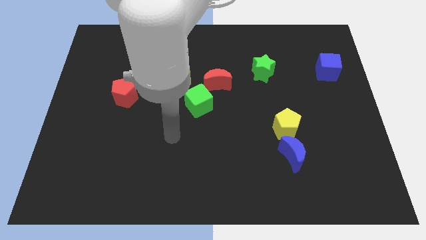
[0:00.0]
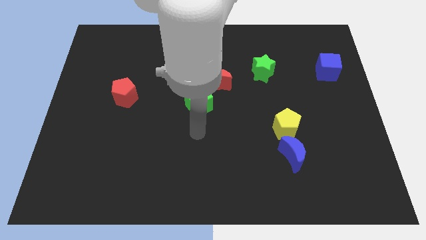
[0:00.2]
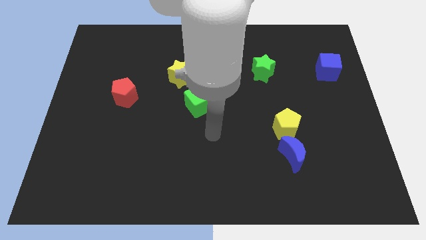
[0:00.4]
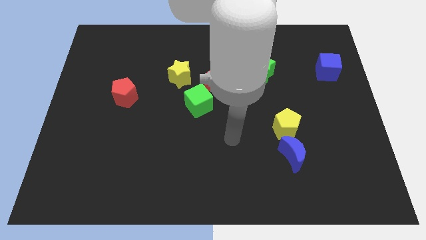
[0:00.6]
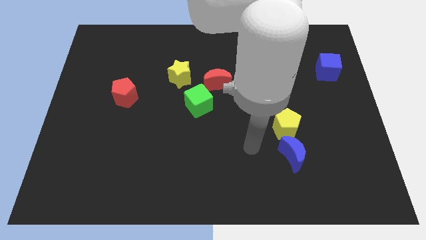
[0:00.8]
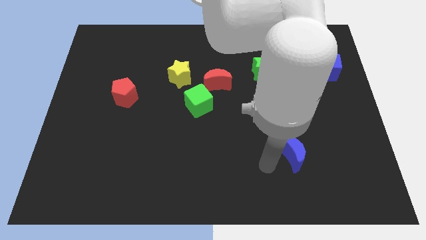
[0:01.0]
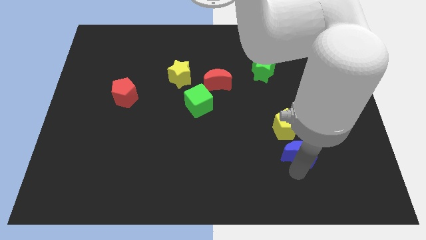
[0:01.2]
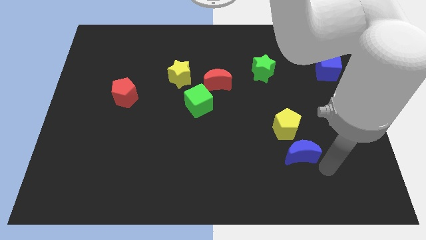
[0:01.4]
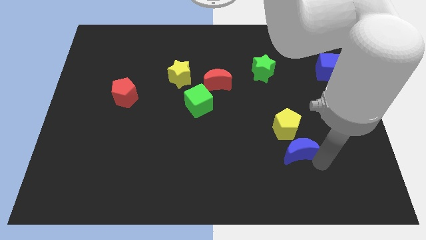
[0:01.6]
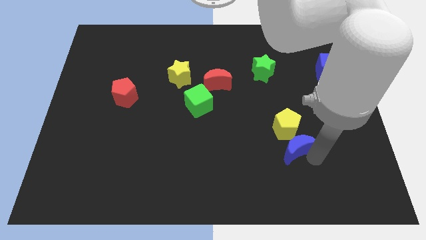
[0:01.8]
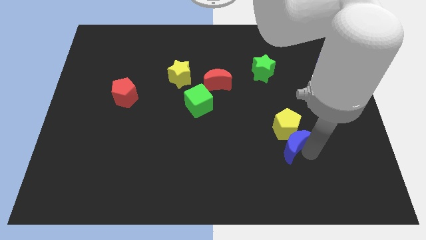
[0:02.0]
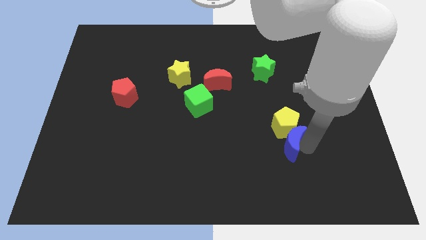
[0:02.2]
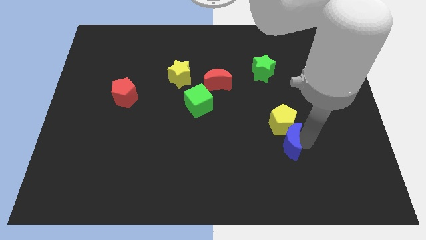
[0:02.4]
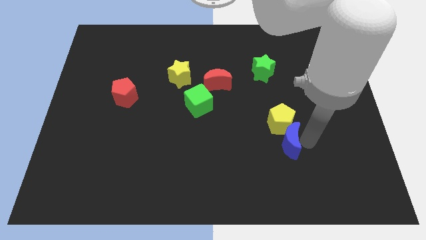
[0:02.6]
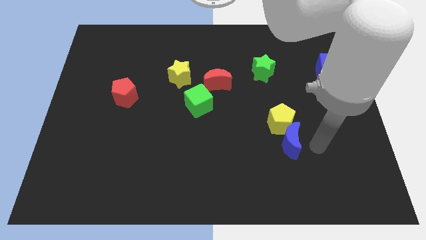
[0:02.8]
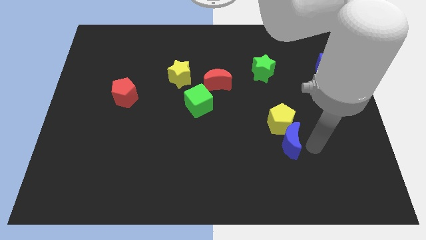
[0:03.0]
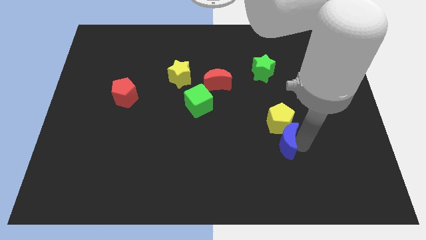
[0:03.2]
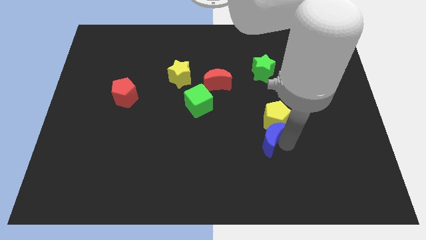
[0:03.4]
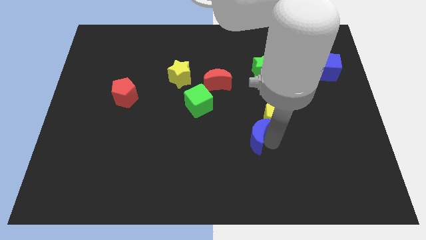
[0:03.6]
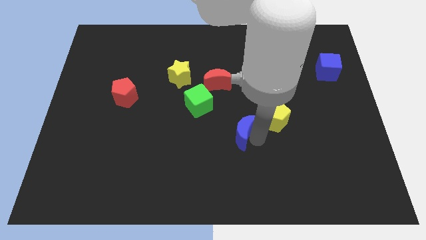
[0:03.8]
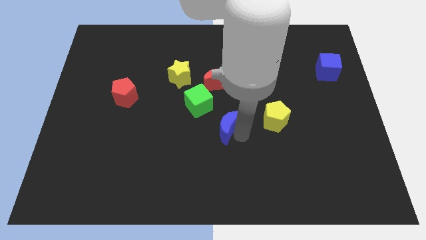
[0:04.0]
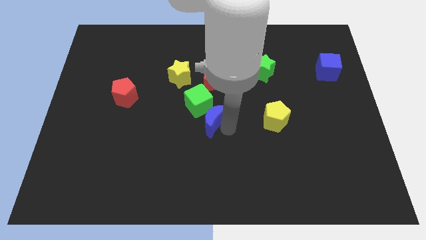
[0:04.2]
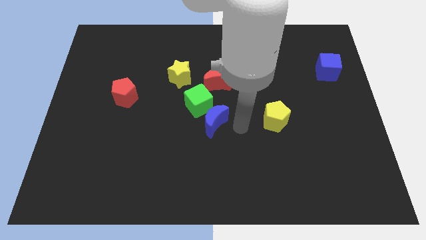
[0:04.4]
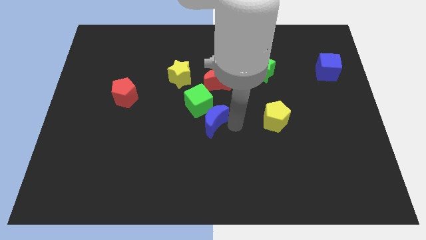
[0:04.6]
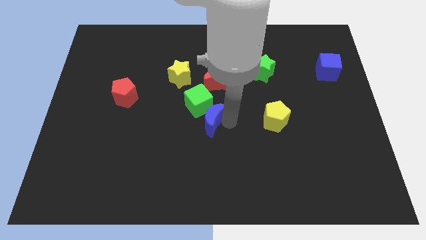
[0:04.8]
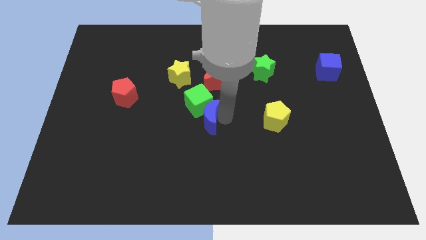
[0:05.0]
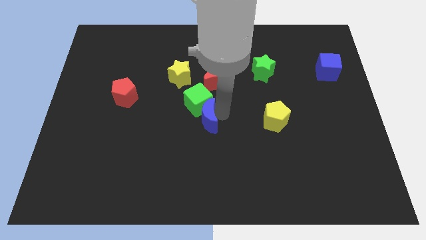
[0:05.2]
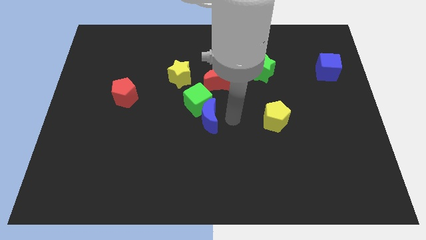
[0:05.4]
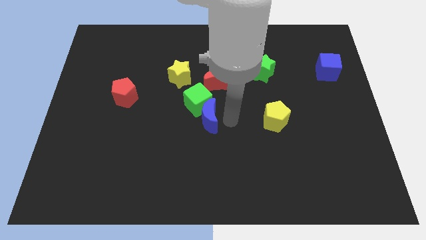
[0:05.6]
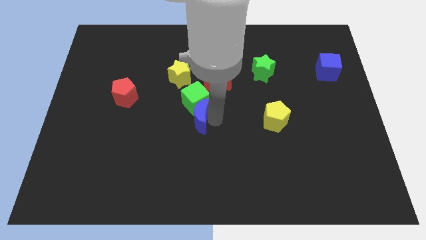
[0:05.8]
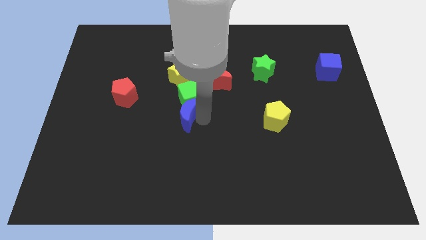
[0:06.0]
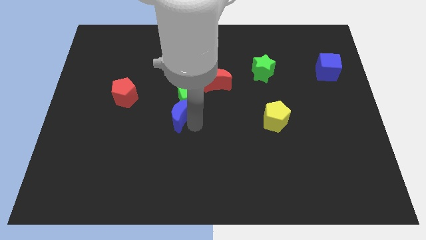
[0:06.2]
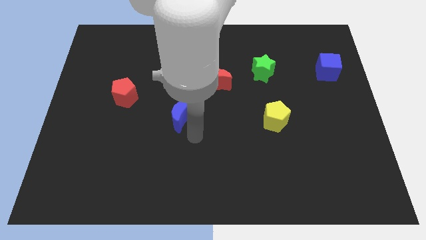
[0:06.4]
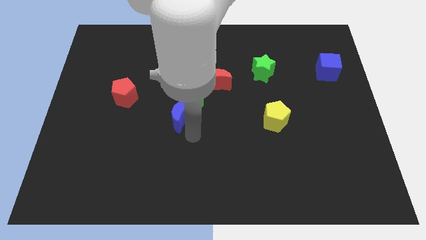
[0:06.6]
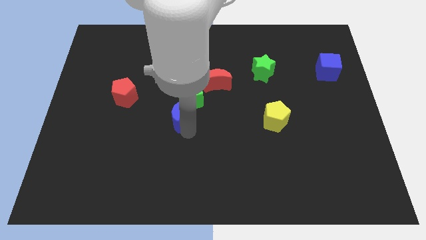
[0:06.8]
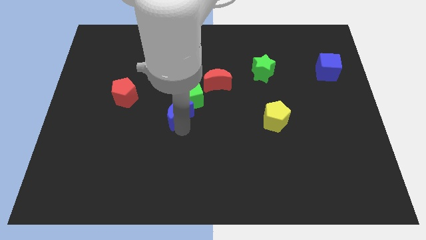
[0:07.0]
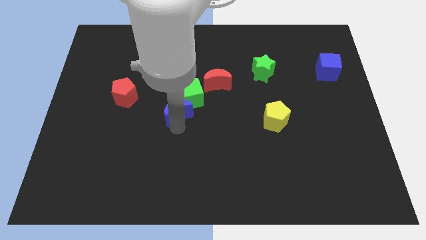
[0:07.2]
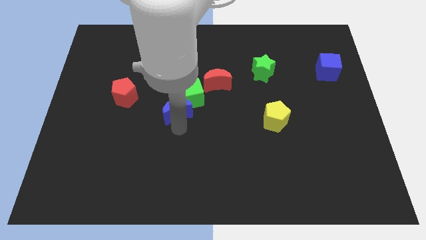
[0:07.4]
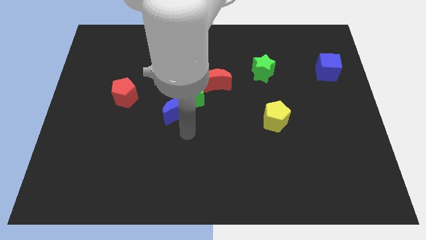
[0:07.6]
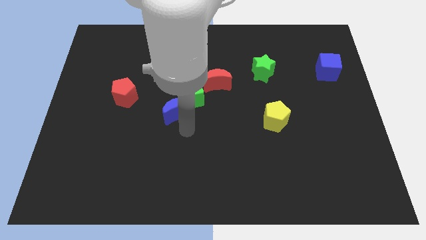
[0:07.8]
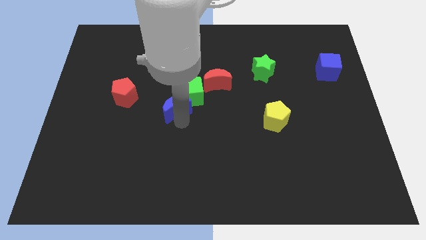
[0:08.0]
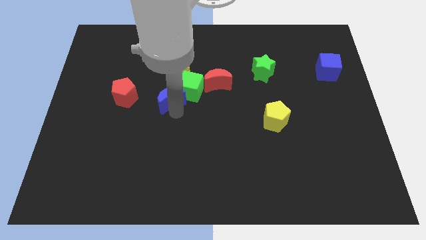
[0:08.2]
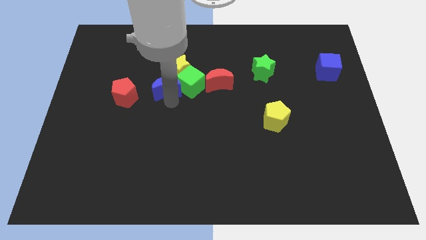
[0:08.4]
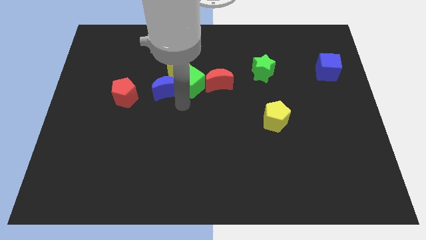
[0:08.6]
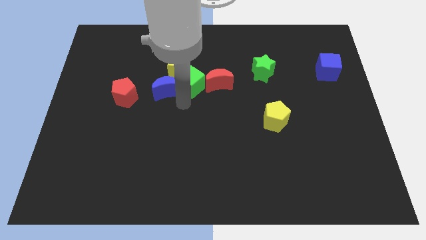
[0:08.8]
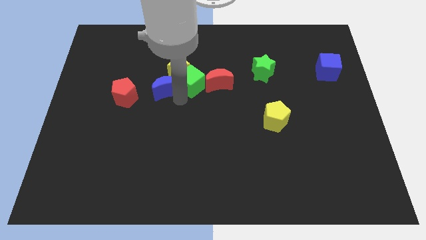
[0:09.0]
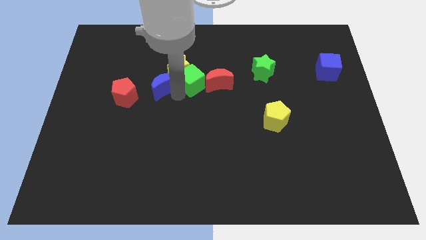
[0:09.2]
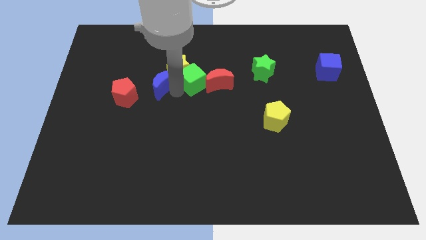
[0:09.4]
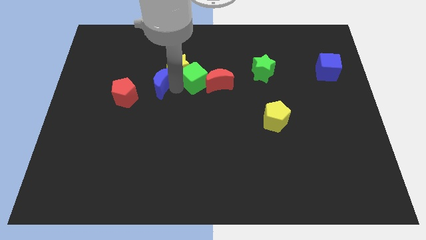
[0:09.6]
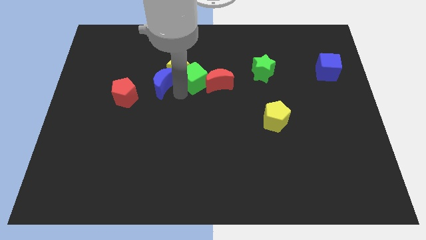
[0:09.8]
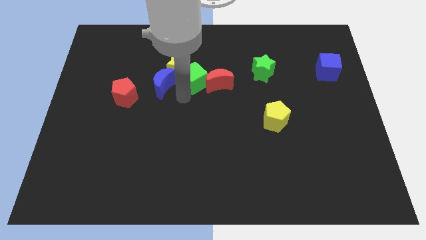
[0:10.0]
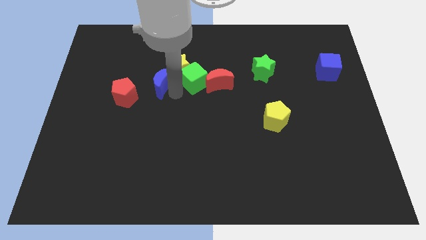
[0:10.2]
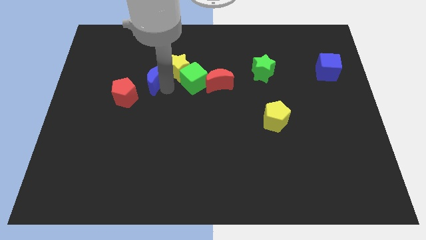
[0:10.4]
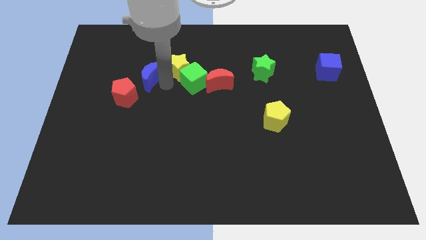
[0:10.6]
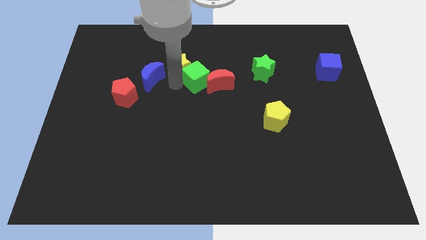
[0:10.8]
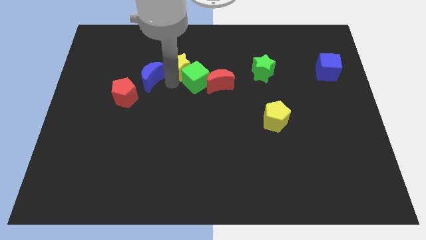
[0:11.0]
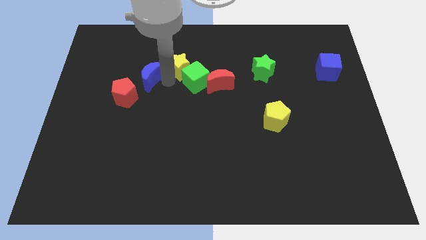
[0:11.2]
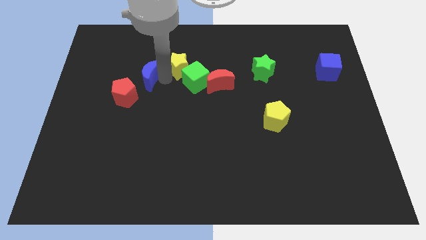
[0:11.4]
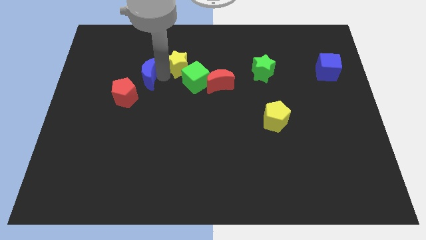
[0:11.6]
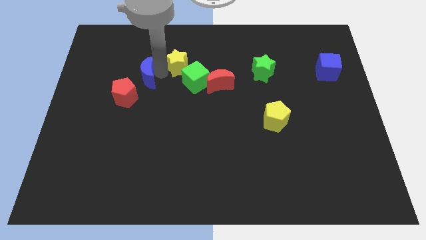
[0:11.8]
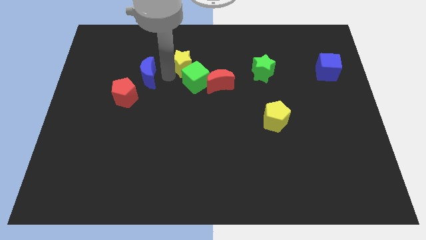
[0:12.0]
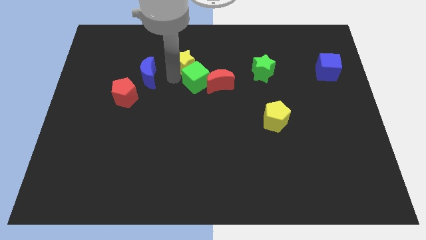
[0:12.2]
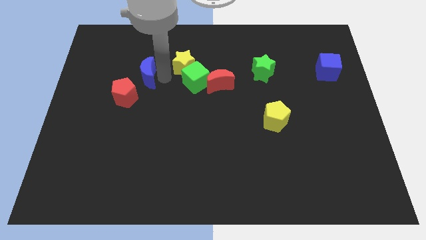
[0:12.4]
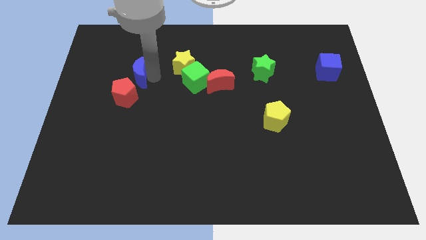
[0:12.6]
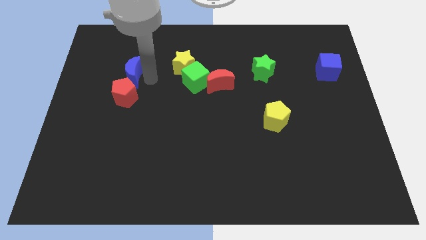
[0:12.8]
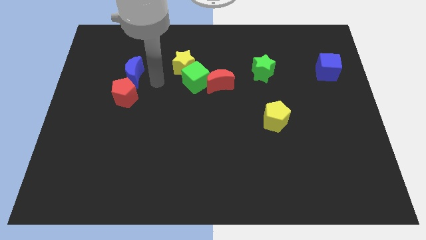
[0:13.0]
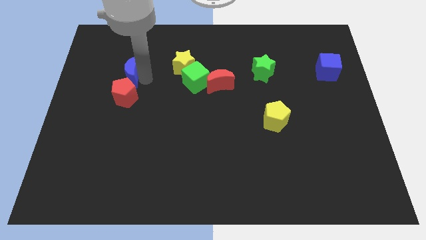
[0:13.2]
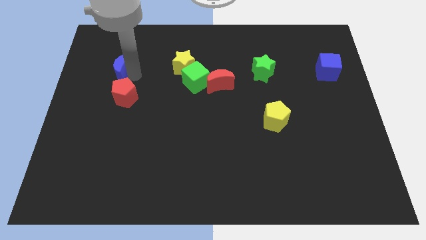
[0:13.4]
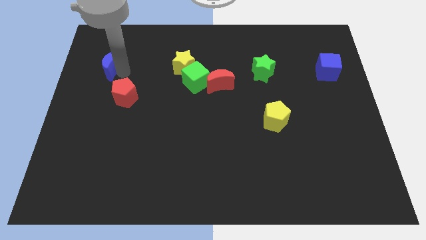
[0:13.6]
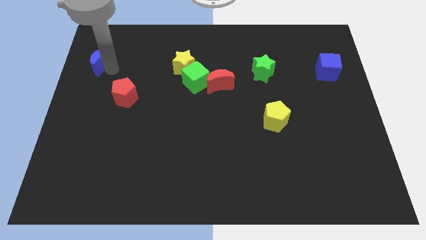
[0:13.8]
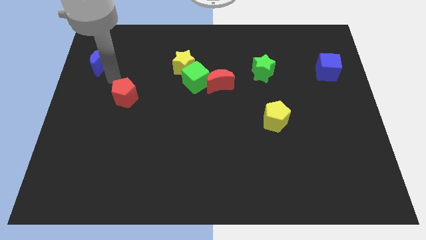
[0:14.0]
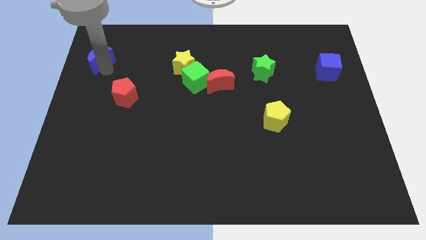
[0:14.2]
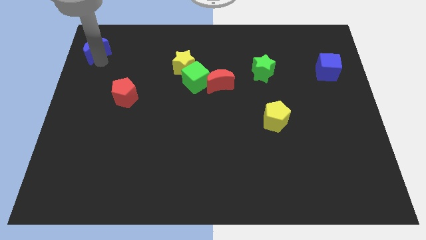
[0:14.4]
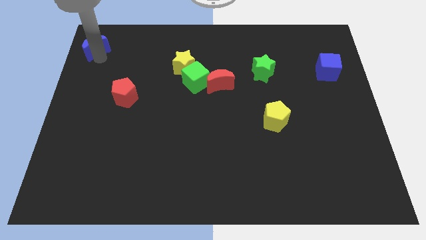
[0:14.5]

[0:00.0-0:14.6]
slide the blue moon to the top left corner
